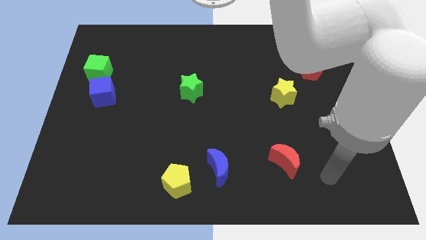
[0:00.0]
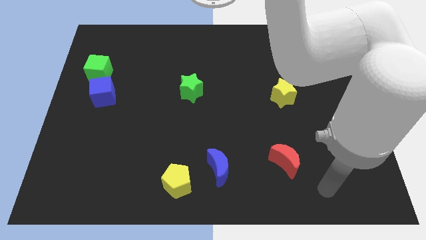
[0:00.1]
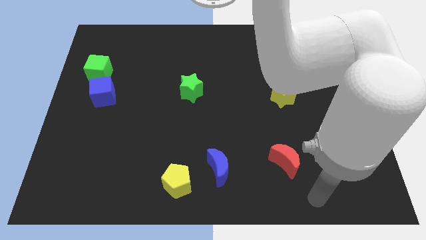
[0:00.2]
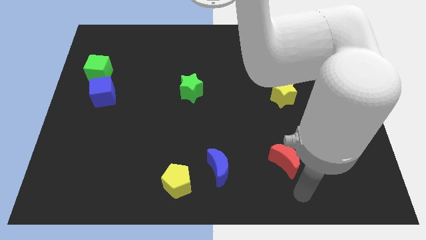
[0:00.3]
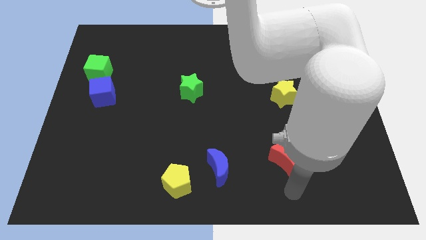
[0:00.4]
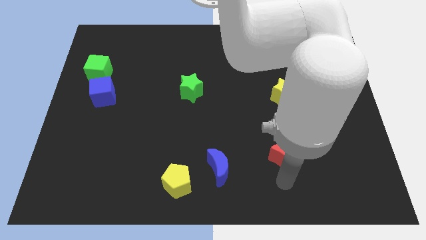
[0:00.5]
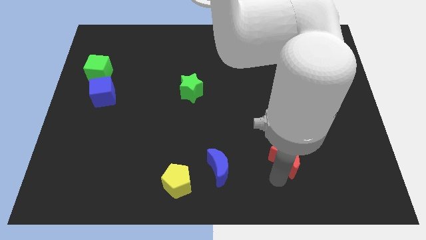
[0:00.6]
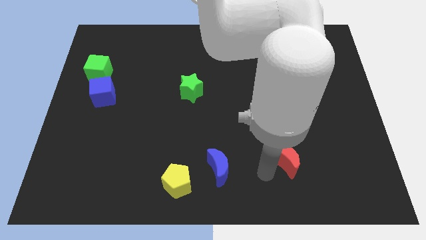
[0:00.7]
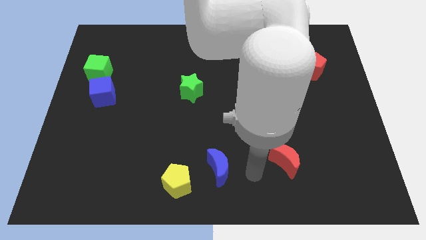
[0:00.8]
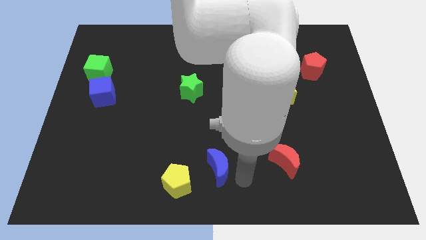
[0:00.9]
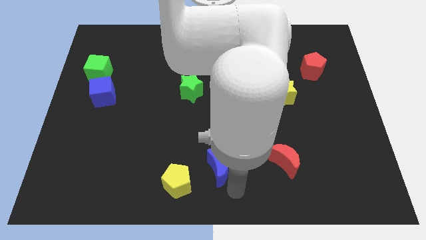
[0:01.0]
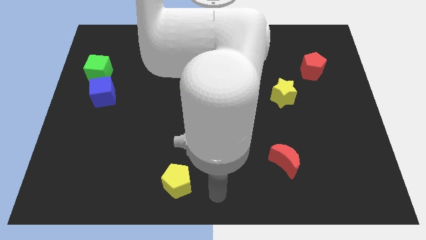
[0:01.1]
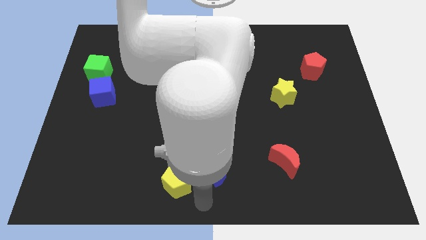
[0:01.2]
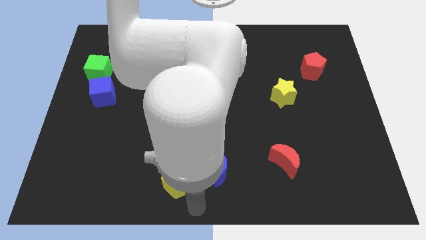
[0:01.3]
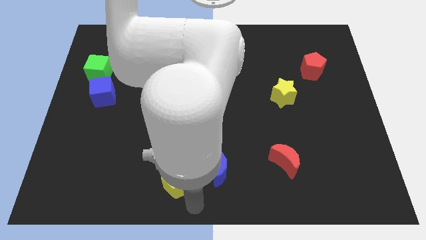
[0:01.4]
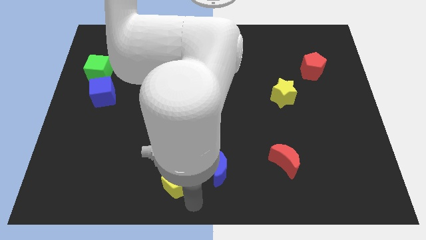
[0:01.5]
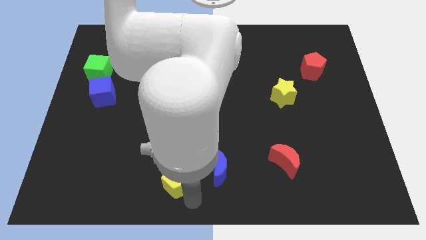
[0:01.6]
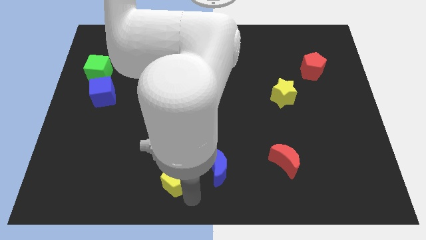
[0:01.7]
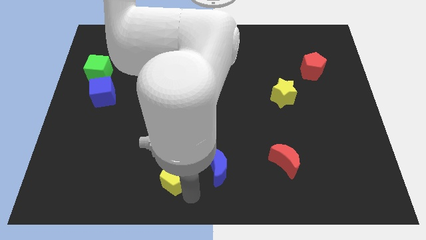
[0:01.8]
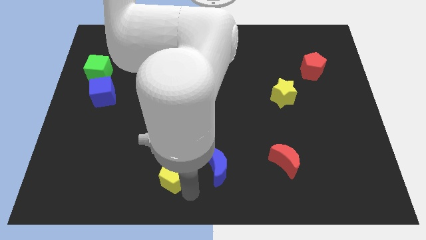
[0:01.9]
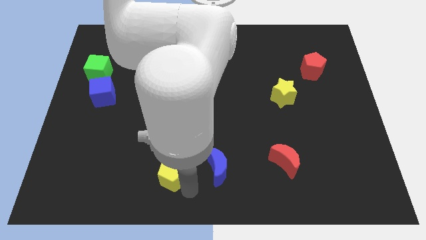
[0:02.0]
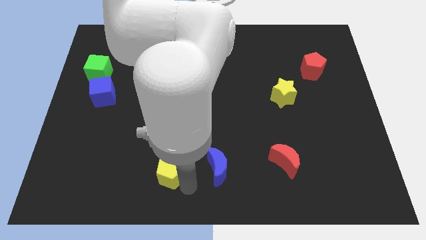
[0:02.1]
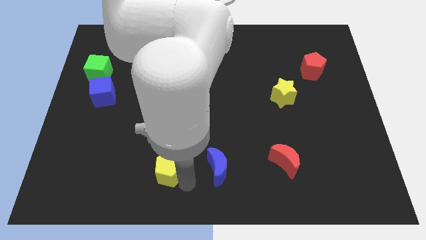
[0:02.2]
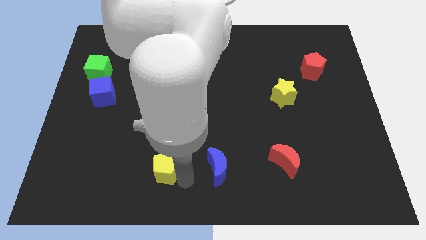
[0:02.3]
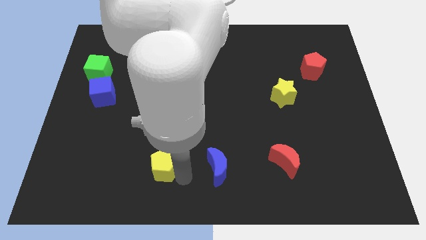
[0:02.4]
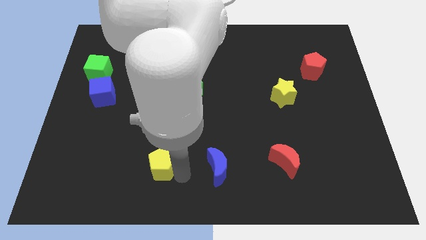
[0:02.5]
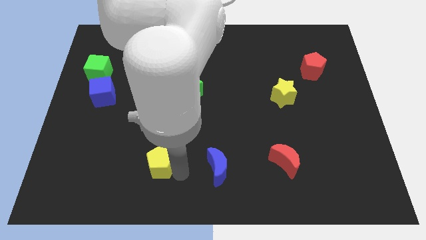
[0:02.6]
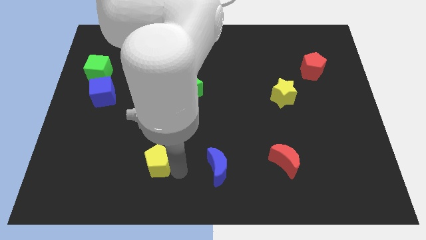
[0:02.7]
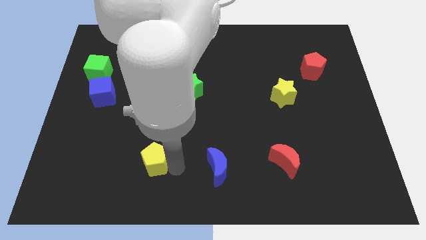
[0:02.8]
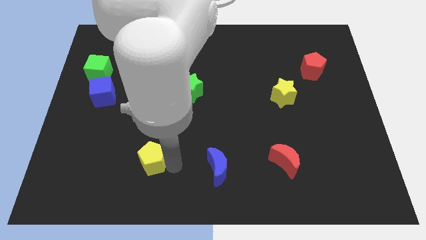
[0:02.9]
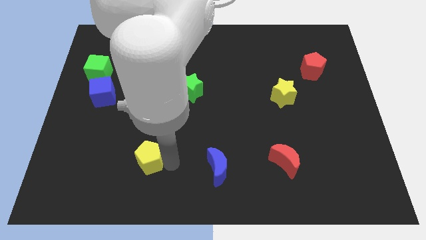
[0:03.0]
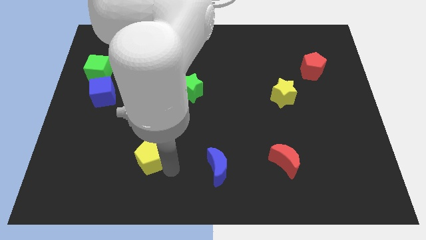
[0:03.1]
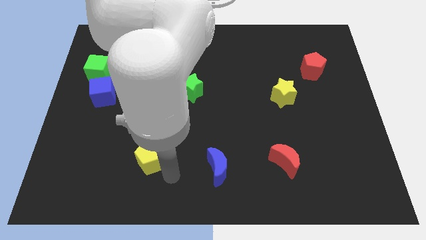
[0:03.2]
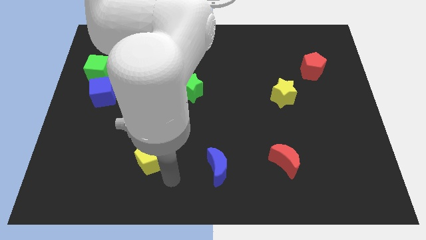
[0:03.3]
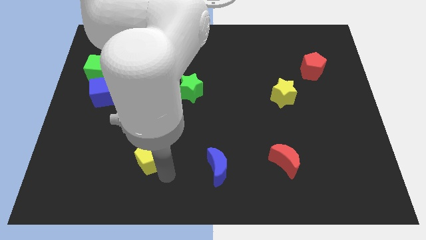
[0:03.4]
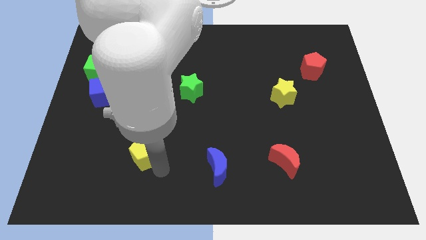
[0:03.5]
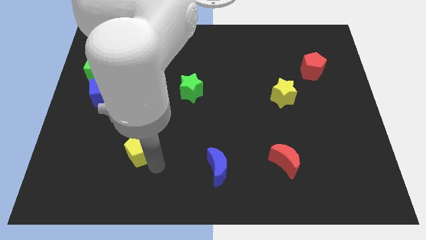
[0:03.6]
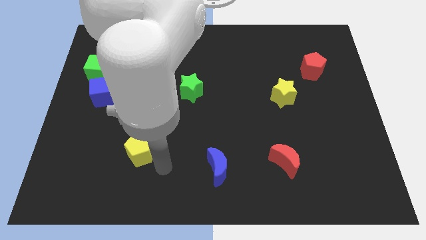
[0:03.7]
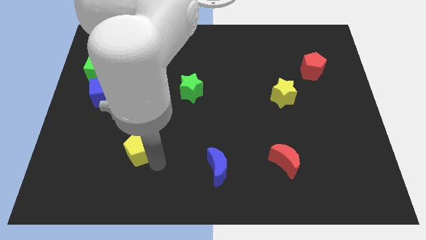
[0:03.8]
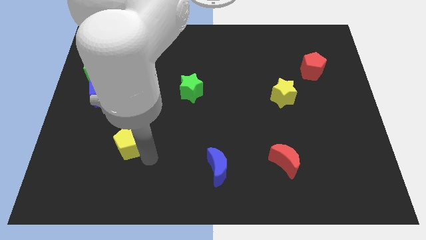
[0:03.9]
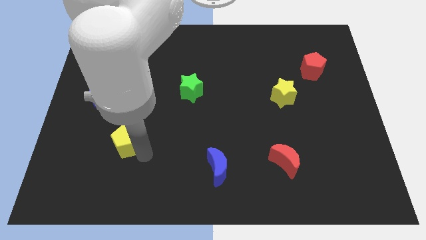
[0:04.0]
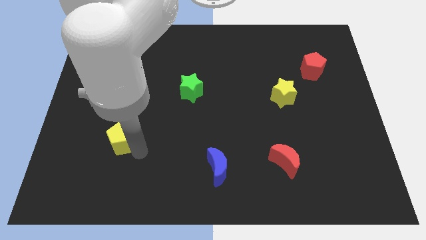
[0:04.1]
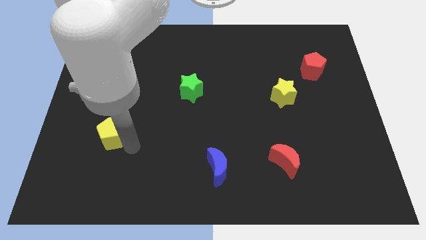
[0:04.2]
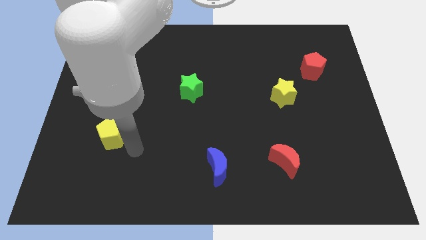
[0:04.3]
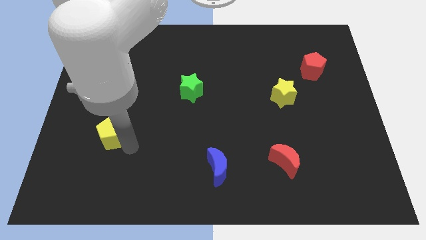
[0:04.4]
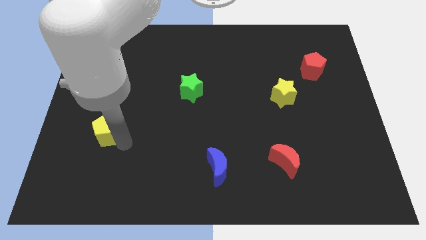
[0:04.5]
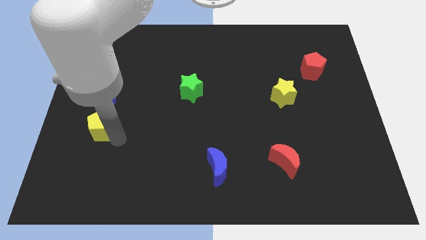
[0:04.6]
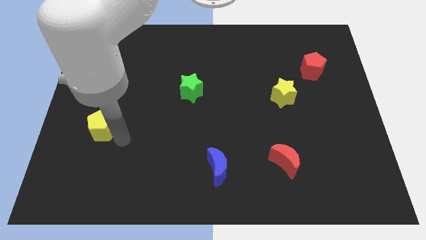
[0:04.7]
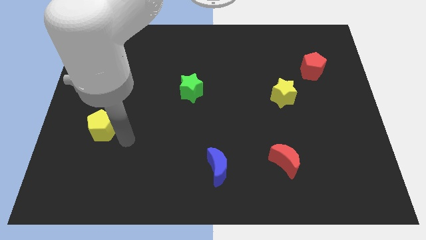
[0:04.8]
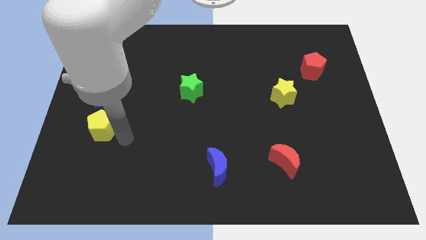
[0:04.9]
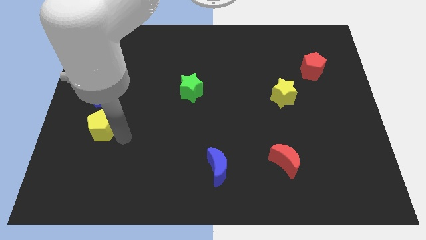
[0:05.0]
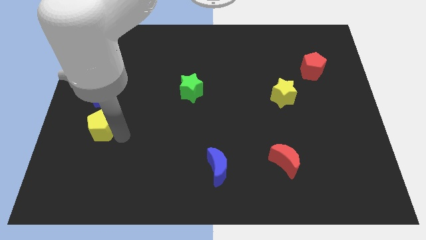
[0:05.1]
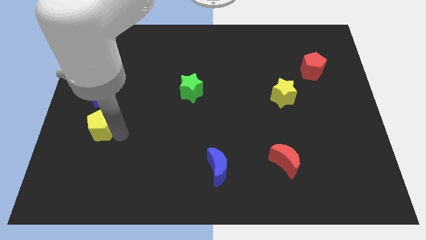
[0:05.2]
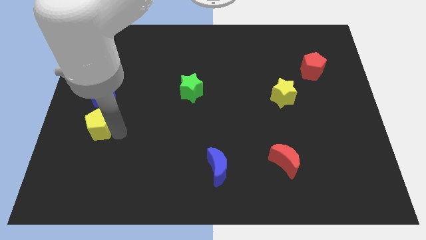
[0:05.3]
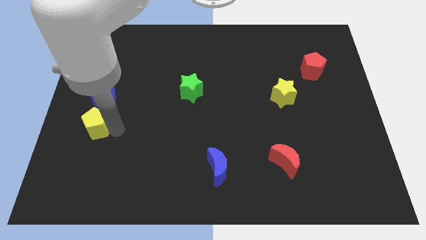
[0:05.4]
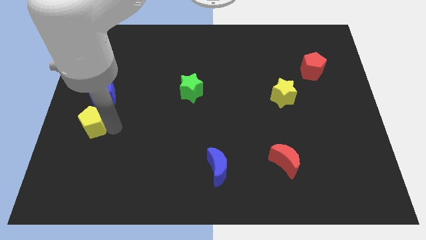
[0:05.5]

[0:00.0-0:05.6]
move the yellow pentagon to the center left
